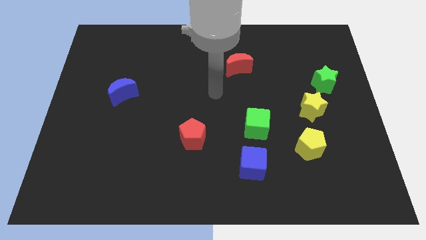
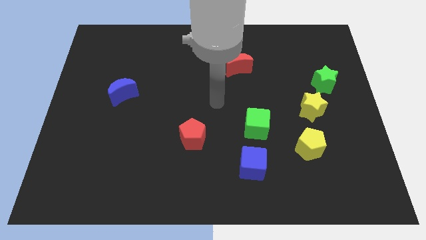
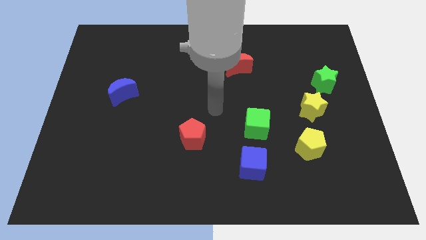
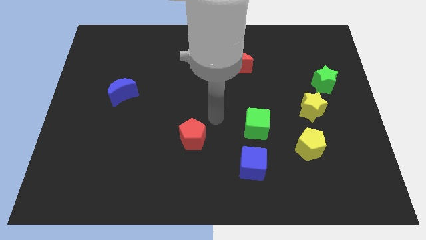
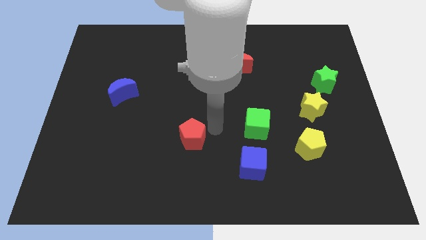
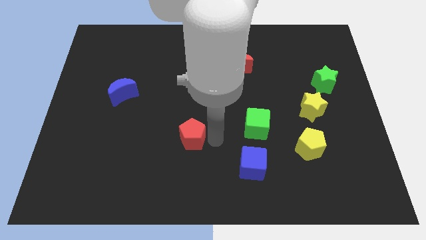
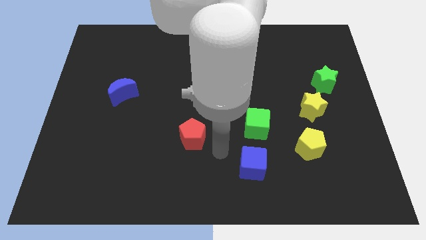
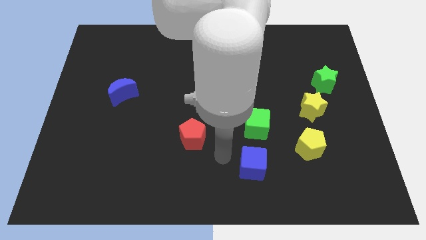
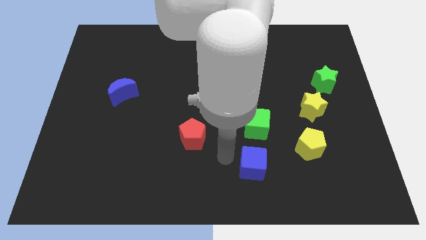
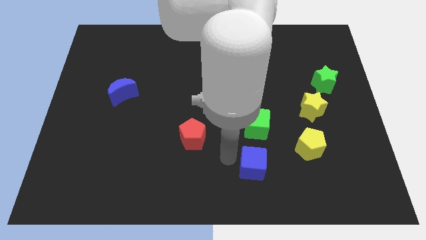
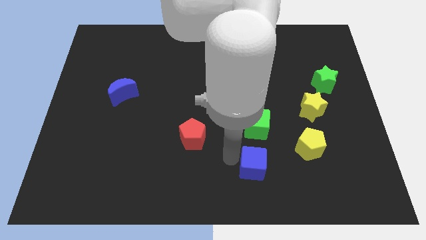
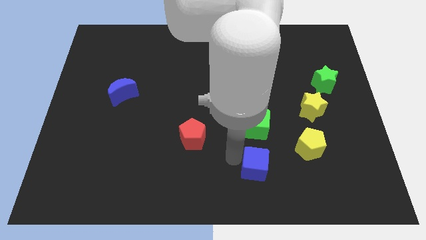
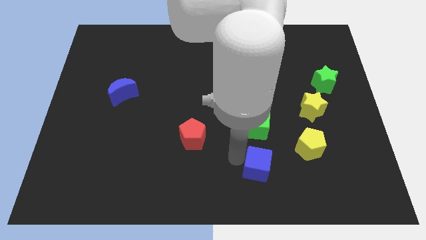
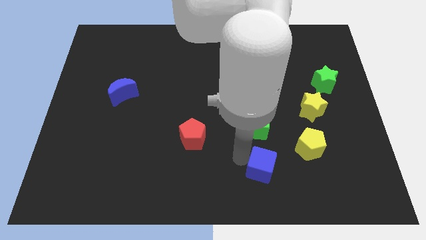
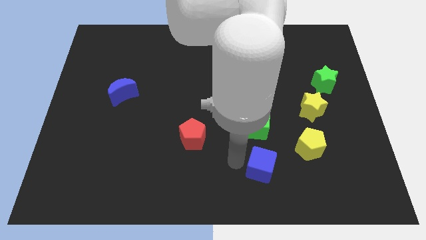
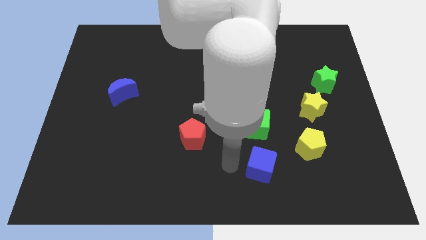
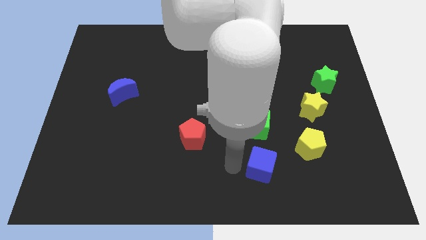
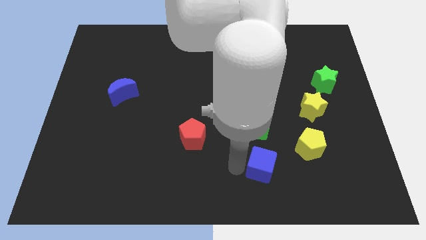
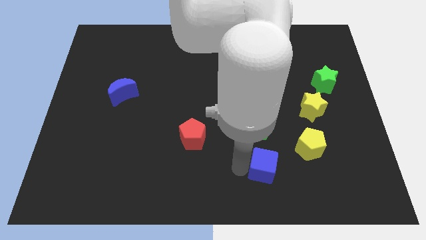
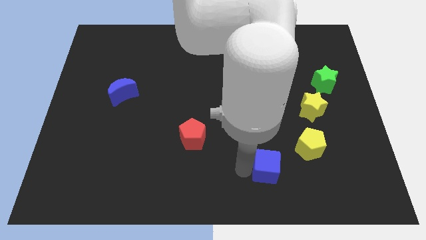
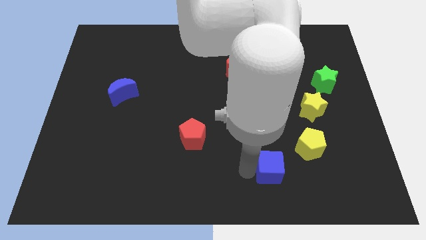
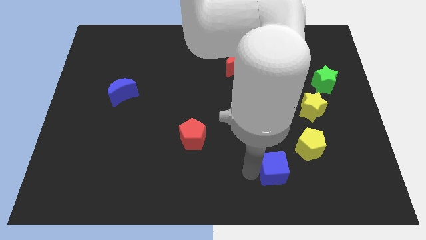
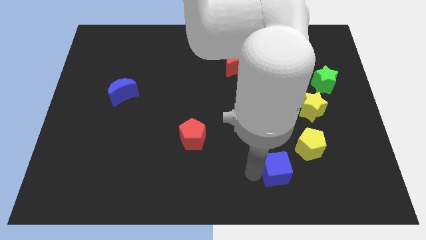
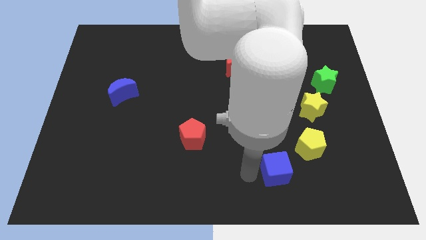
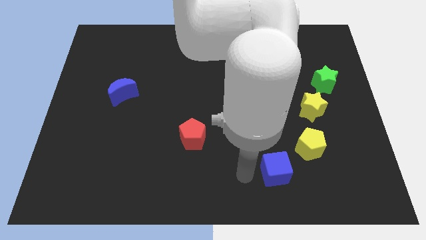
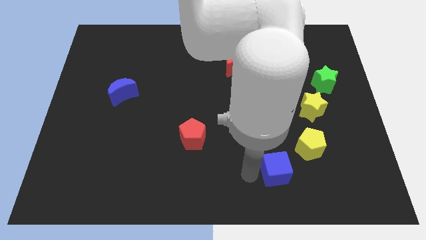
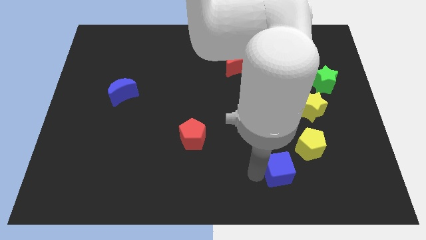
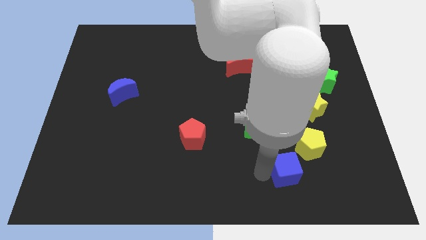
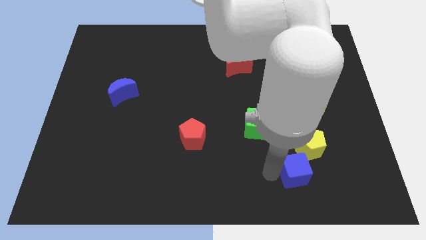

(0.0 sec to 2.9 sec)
slightly move the blue cube right

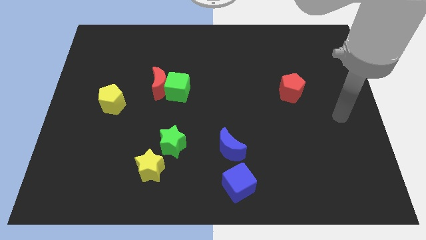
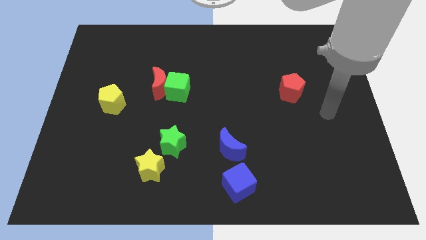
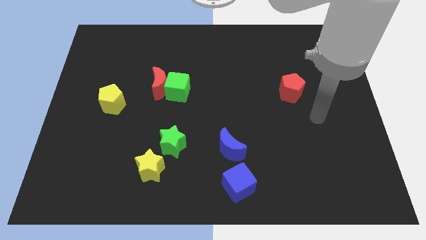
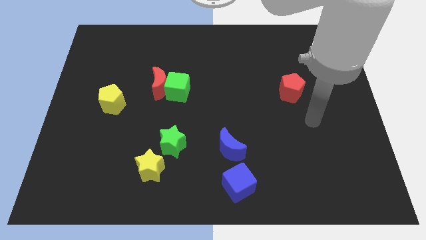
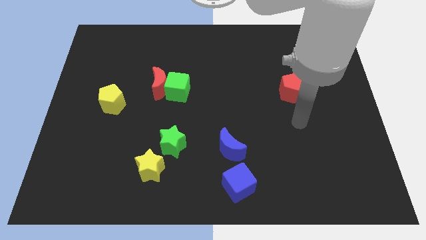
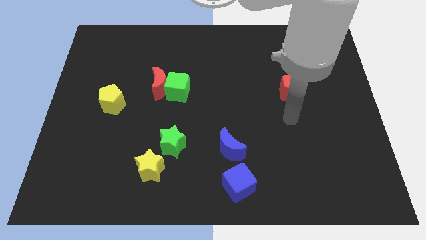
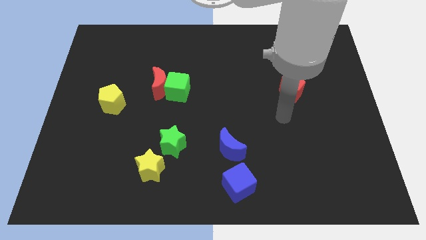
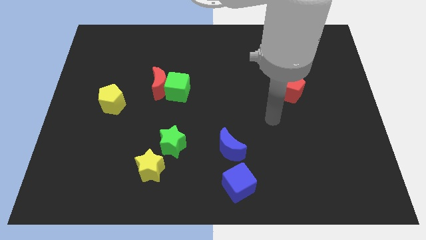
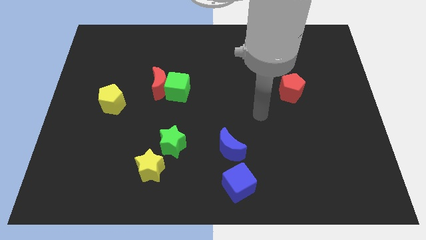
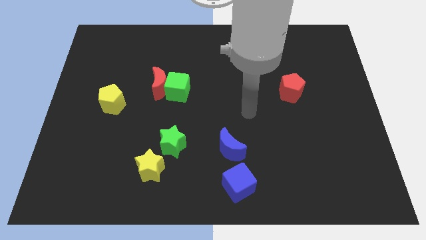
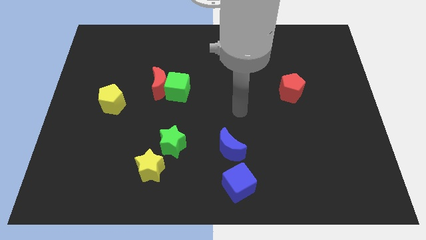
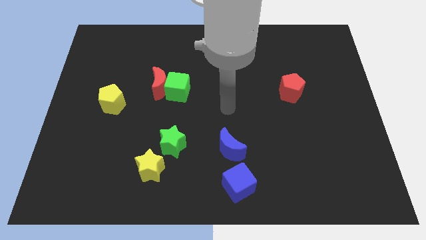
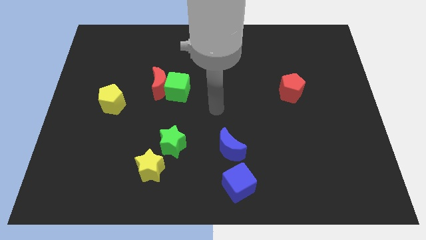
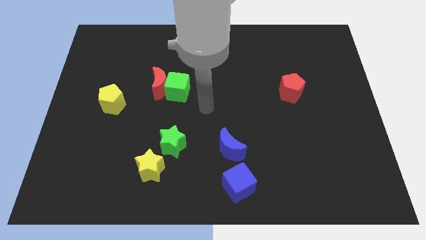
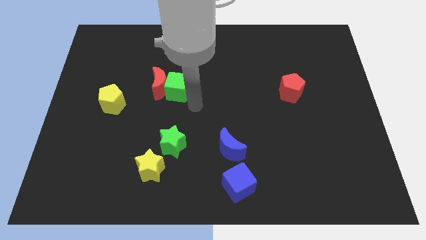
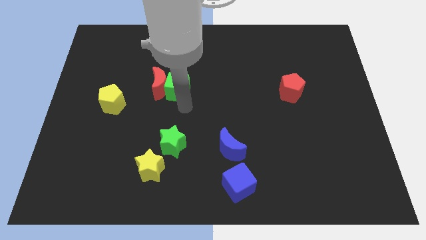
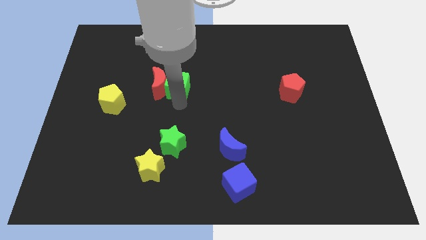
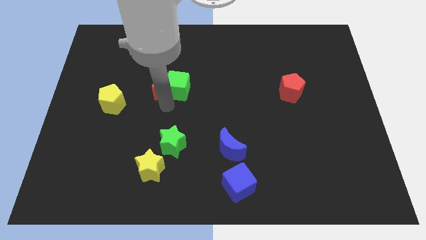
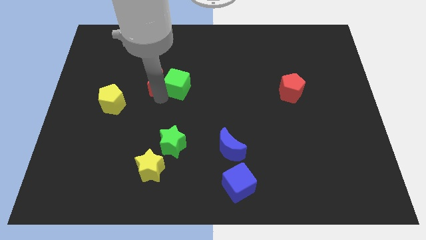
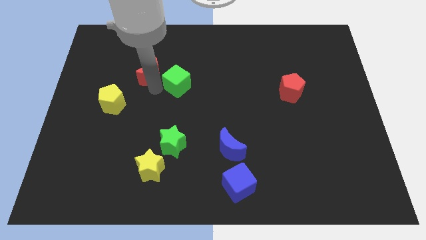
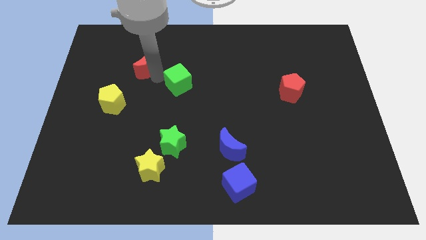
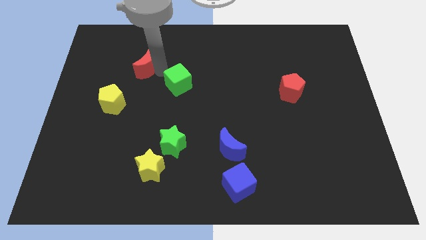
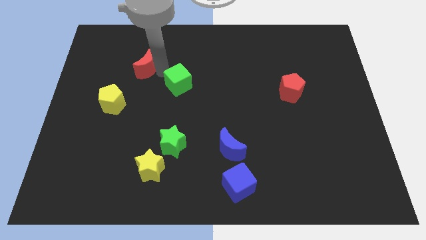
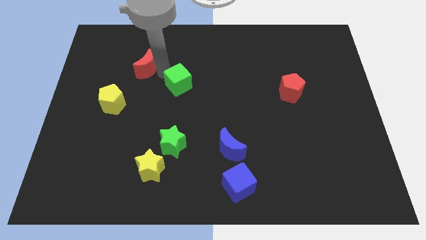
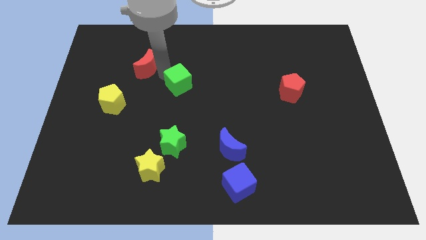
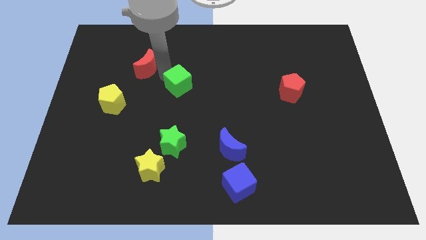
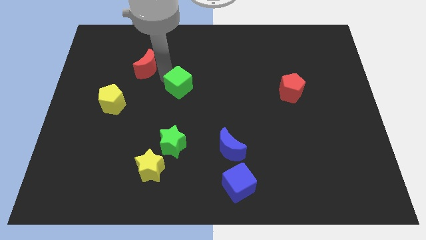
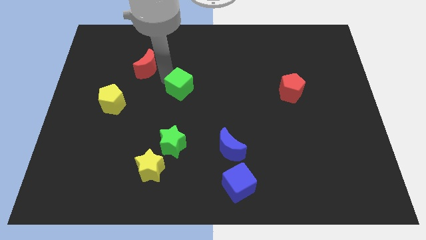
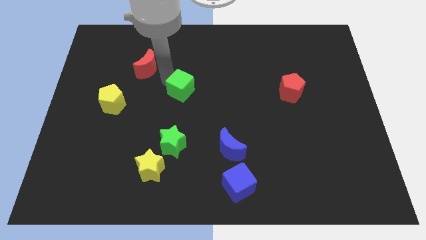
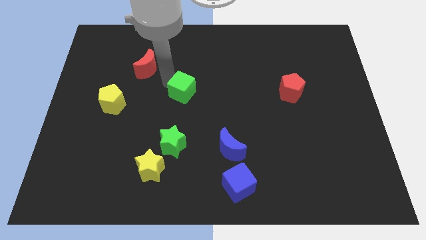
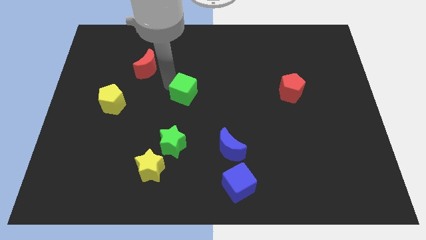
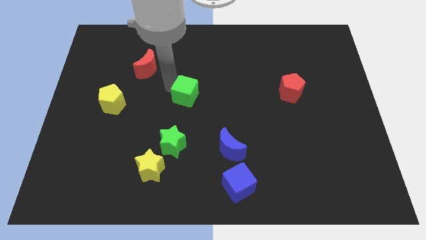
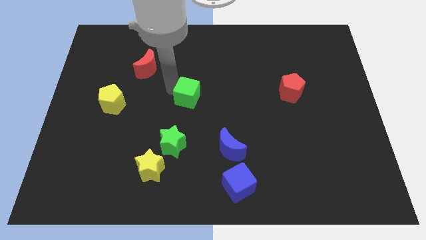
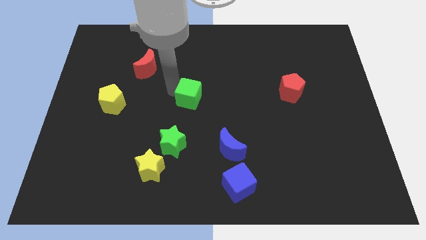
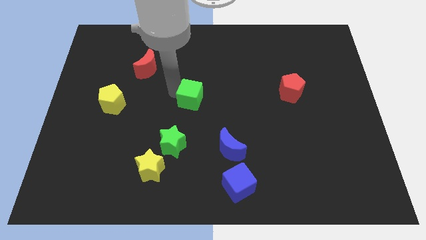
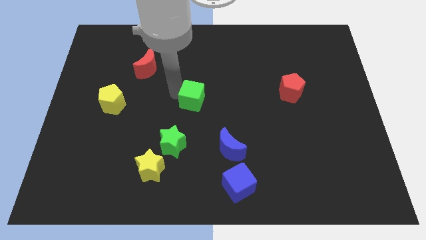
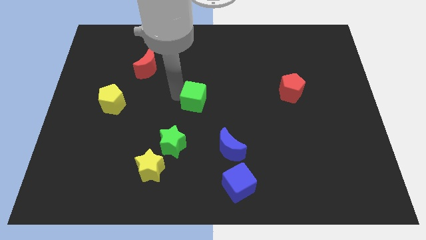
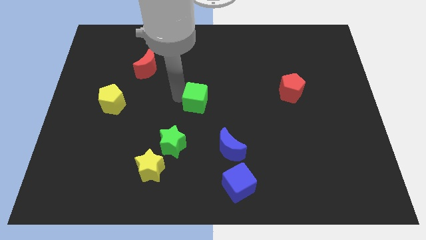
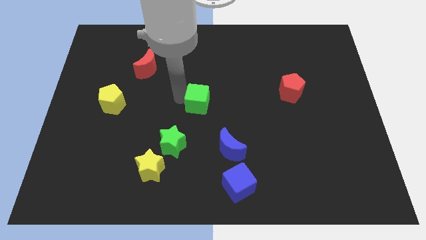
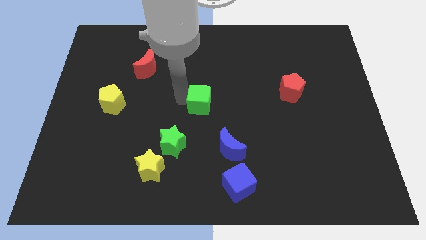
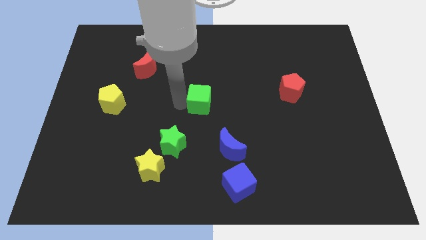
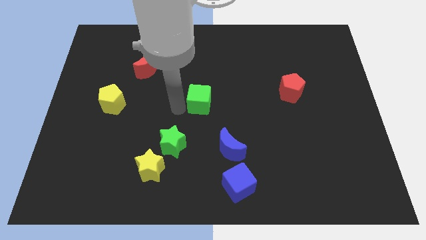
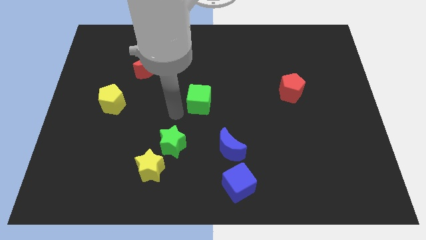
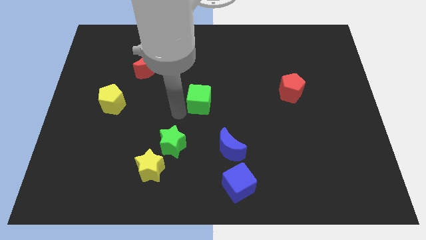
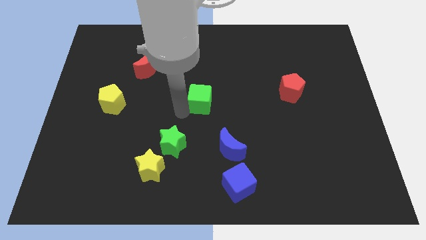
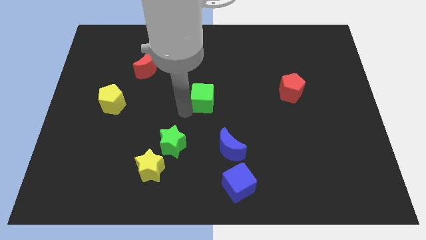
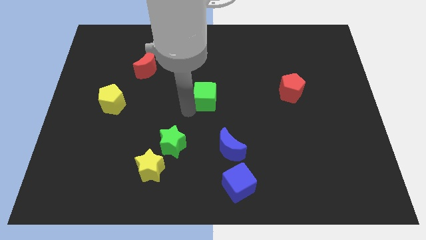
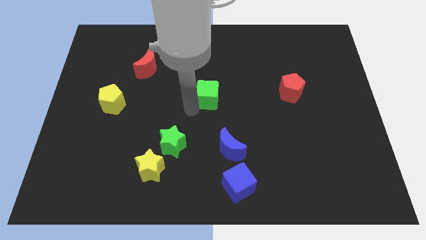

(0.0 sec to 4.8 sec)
move the green cube somewhat right

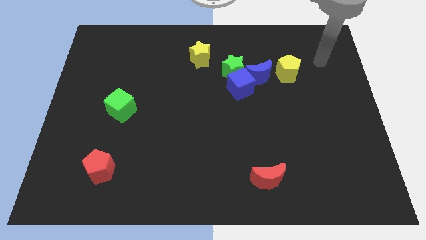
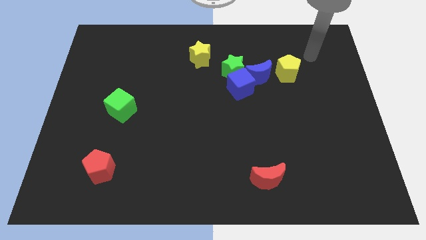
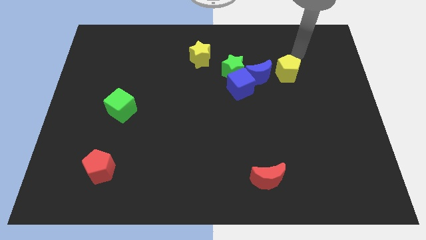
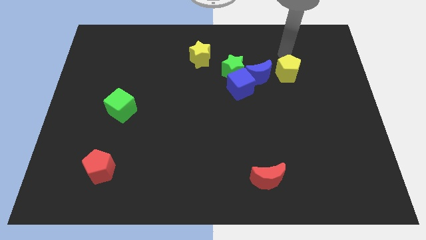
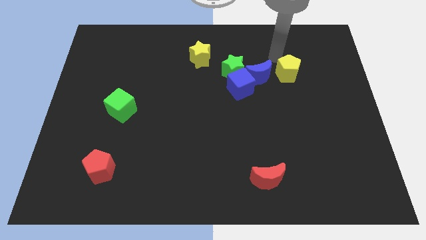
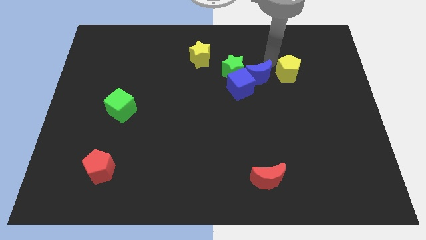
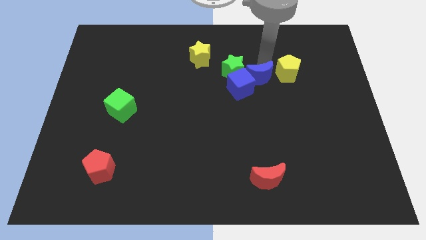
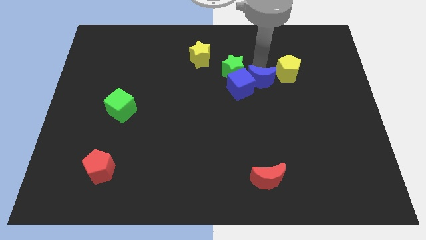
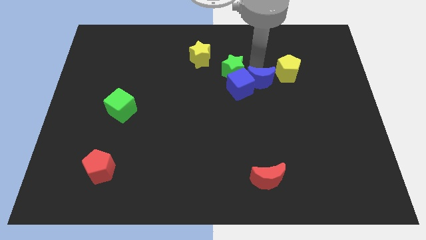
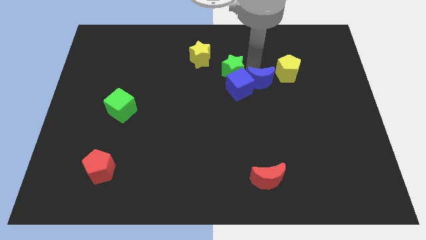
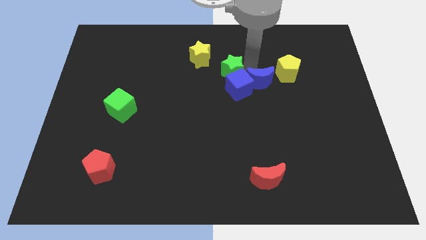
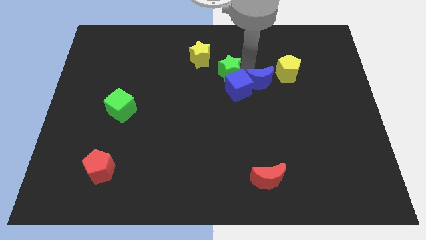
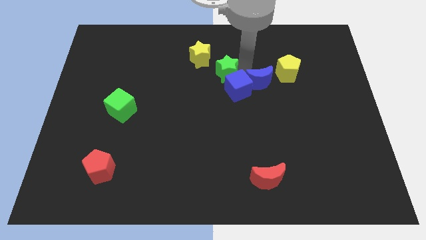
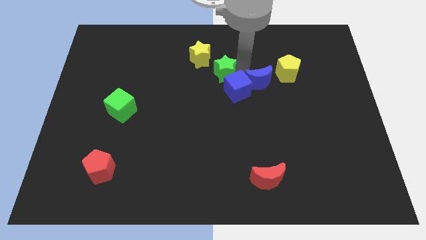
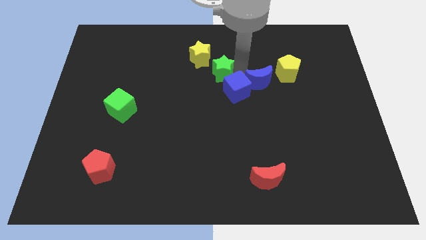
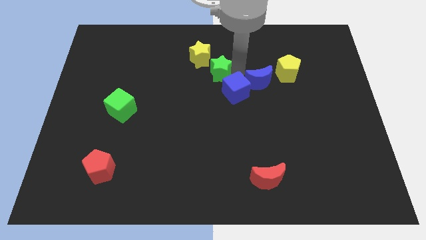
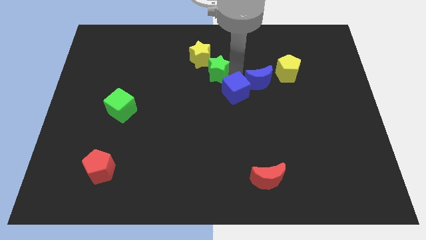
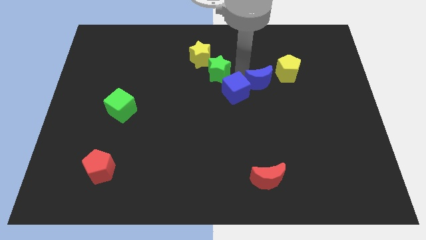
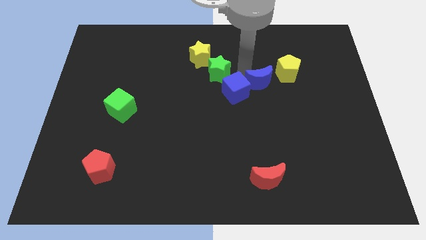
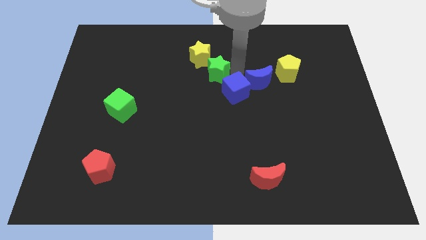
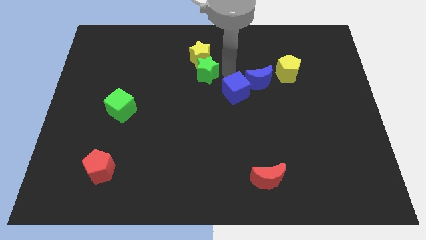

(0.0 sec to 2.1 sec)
move the green star left a little bit
